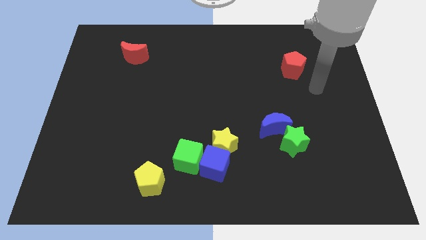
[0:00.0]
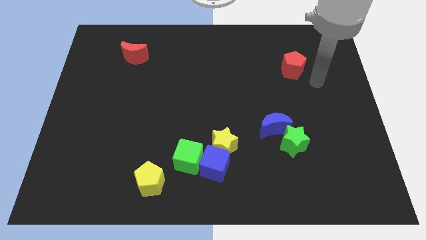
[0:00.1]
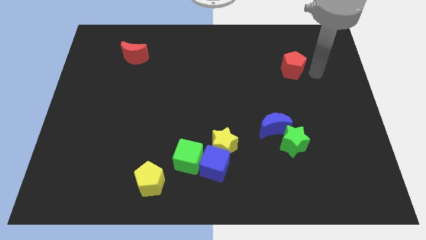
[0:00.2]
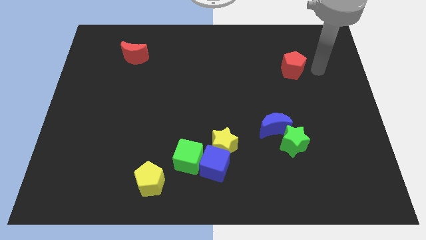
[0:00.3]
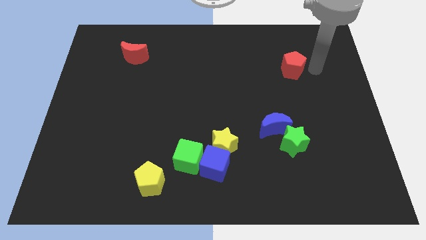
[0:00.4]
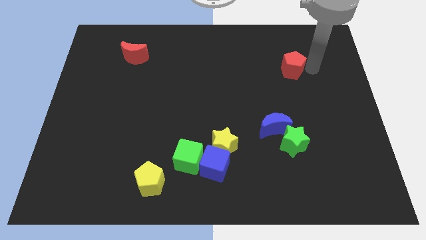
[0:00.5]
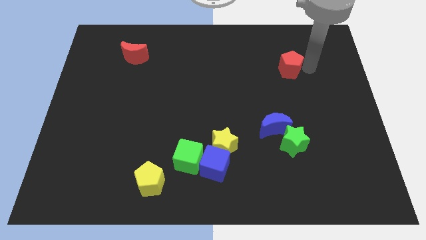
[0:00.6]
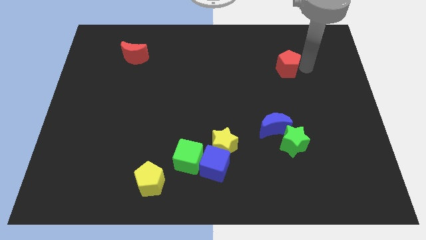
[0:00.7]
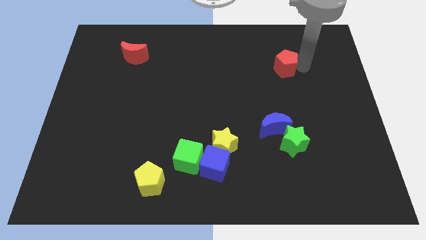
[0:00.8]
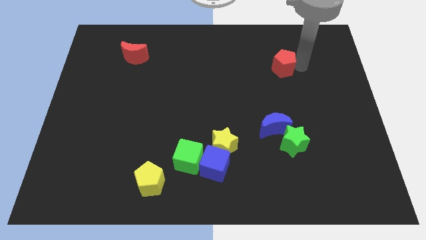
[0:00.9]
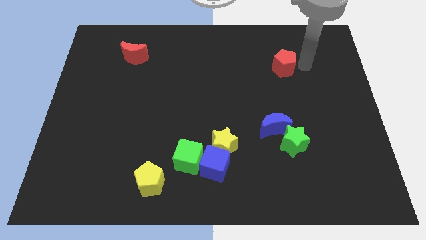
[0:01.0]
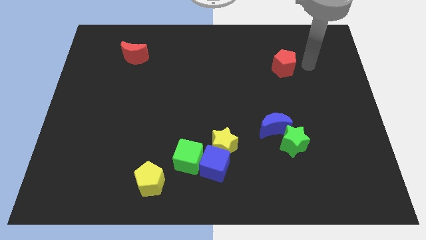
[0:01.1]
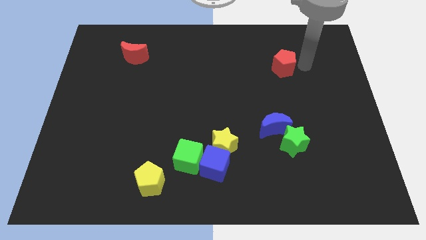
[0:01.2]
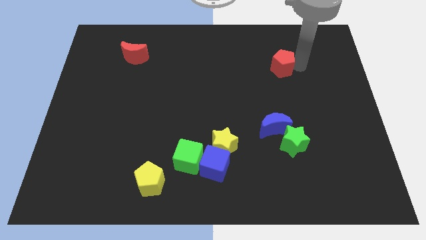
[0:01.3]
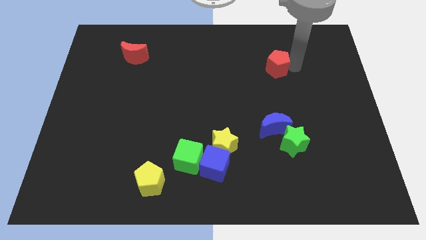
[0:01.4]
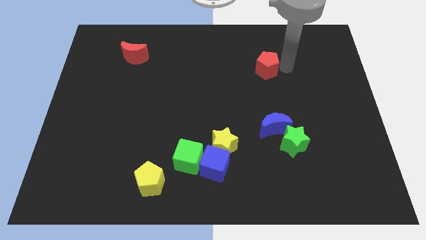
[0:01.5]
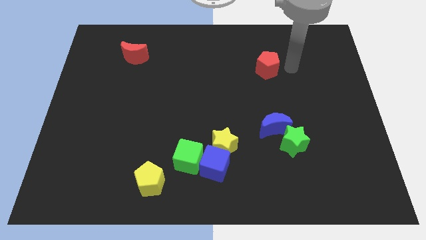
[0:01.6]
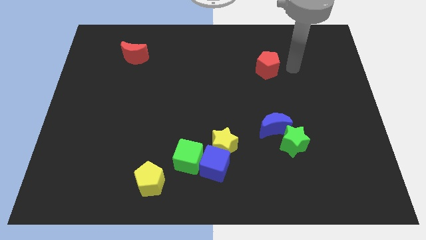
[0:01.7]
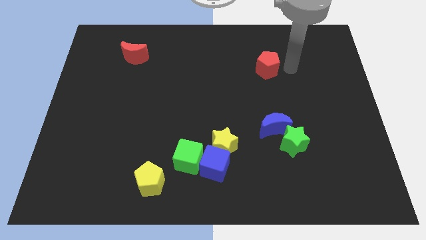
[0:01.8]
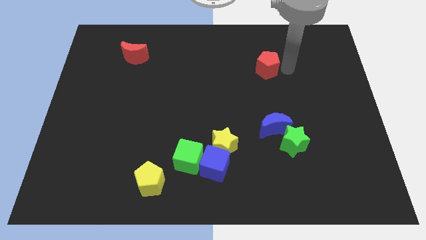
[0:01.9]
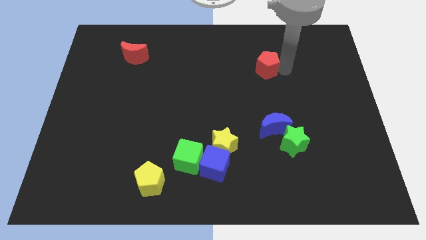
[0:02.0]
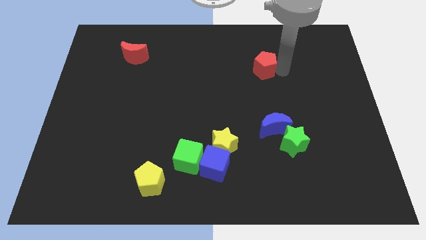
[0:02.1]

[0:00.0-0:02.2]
slightly slide the red pentagon left

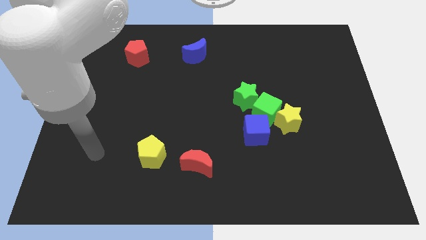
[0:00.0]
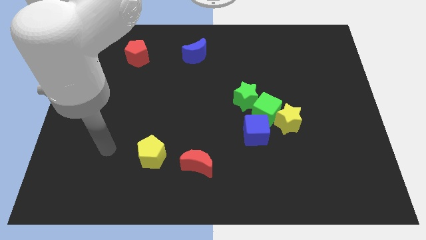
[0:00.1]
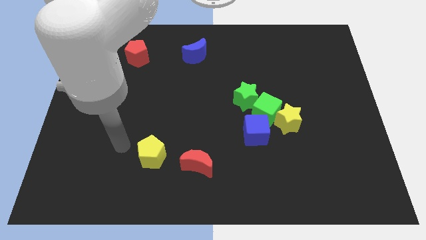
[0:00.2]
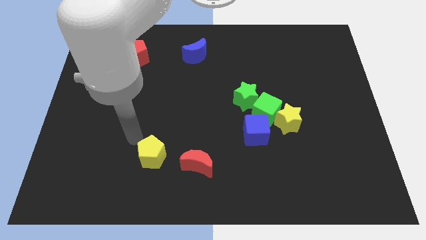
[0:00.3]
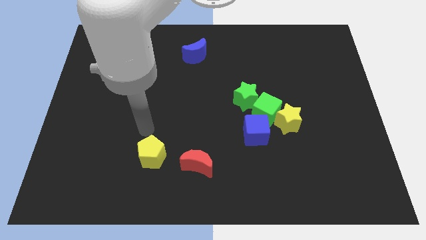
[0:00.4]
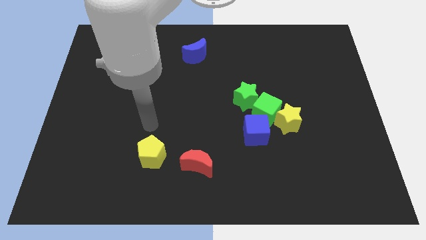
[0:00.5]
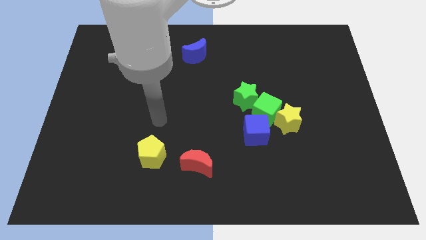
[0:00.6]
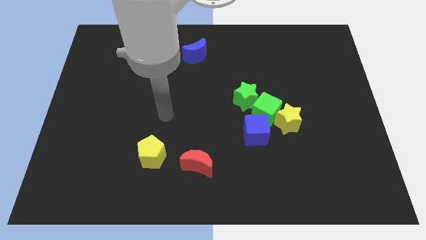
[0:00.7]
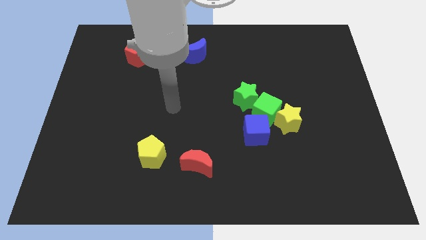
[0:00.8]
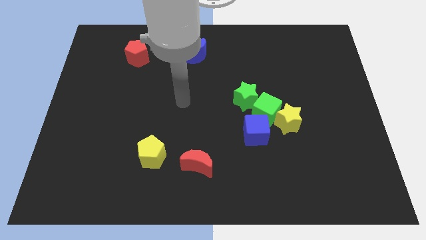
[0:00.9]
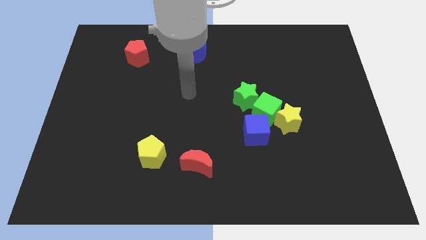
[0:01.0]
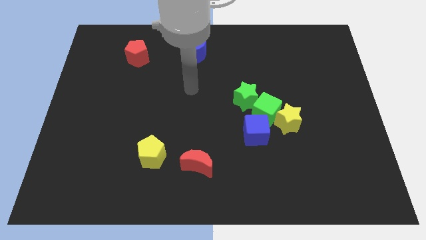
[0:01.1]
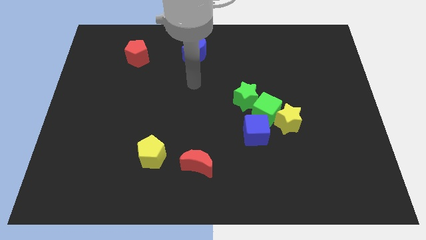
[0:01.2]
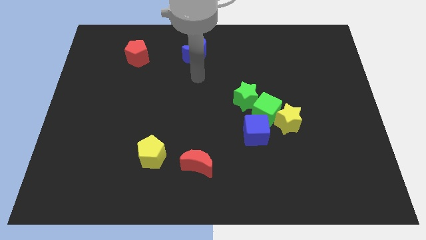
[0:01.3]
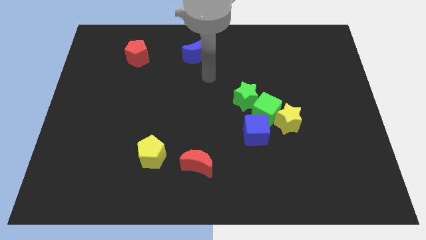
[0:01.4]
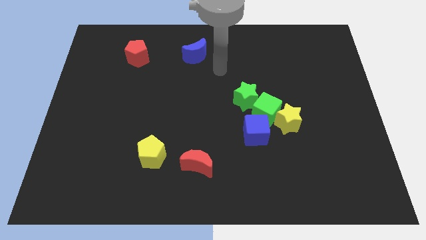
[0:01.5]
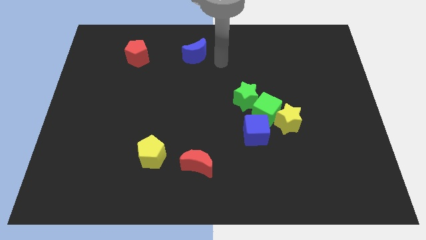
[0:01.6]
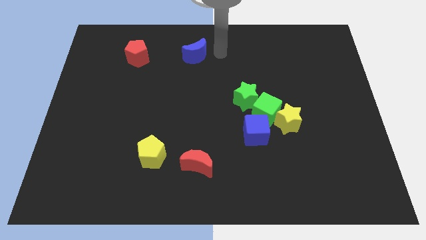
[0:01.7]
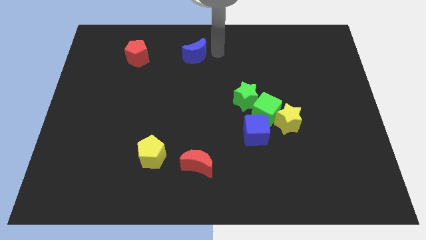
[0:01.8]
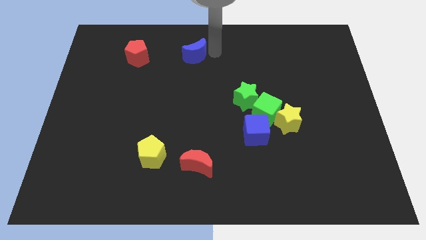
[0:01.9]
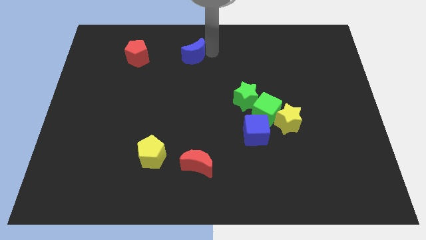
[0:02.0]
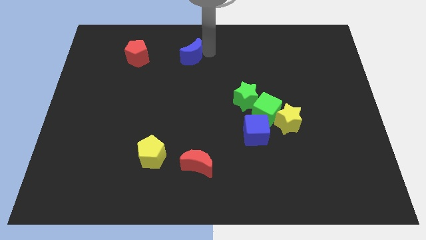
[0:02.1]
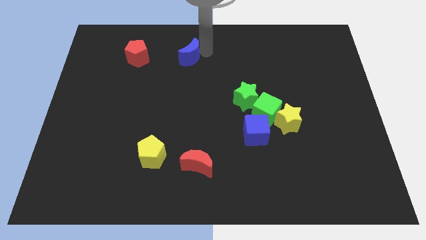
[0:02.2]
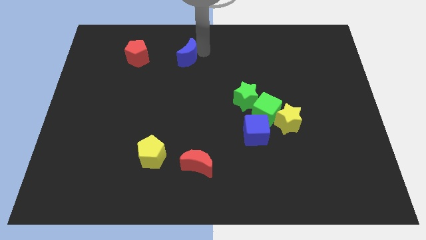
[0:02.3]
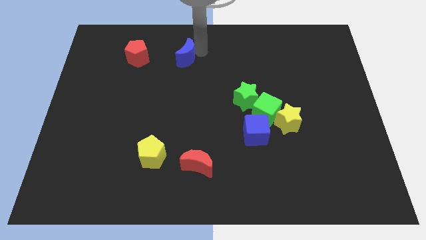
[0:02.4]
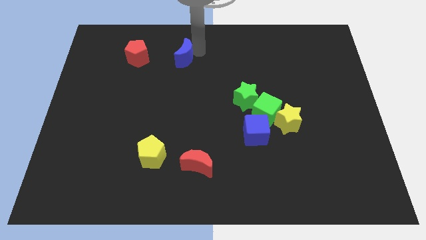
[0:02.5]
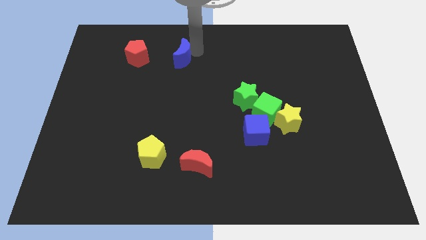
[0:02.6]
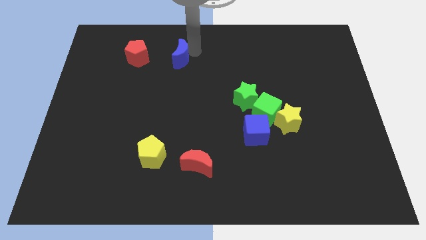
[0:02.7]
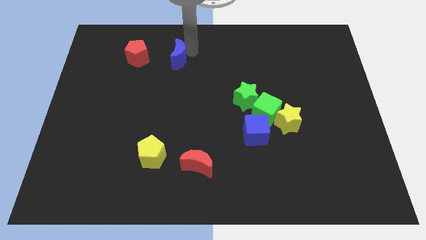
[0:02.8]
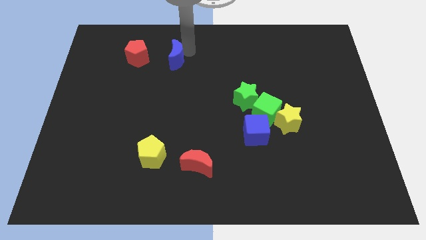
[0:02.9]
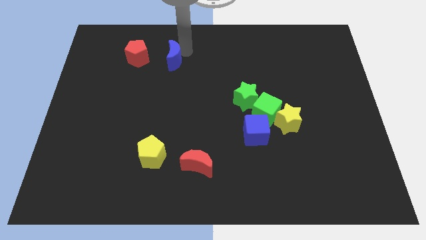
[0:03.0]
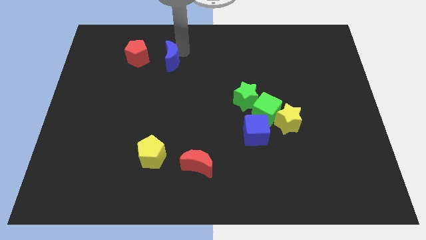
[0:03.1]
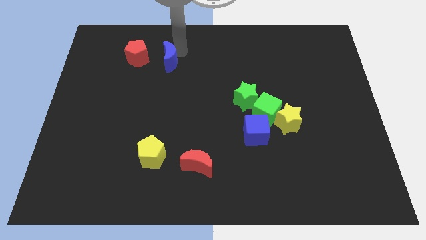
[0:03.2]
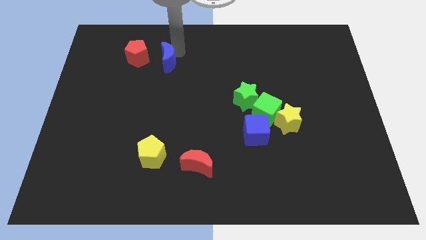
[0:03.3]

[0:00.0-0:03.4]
slide the blue moon a little left

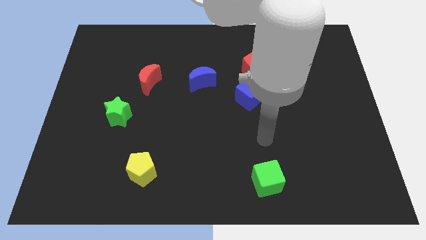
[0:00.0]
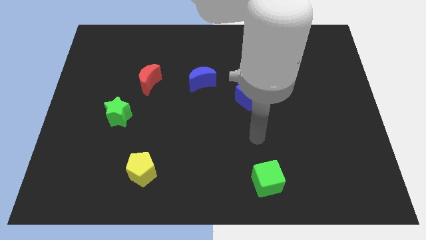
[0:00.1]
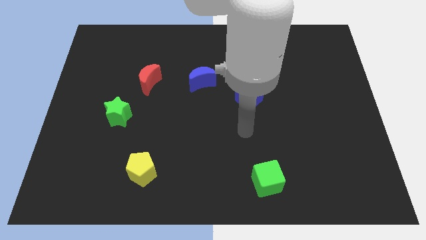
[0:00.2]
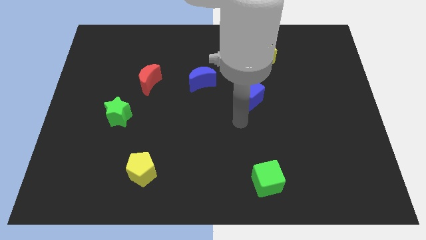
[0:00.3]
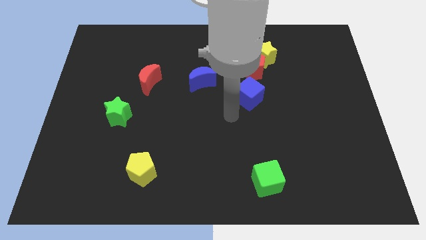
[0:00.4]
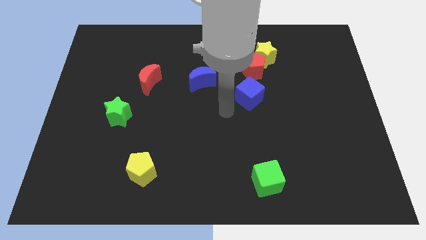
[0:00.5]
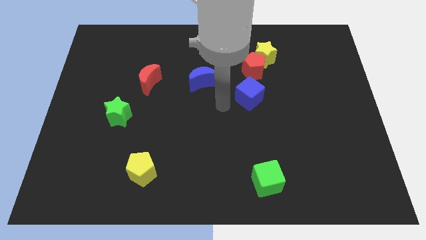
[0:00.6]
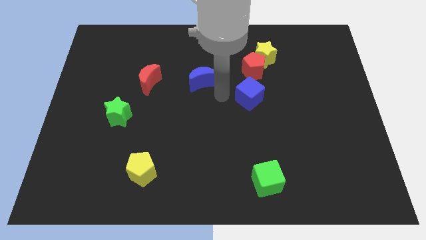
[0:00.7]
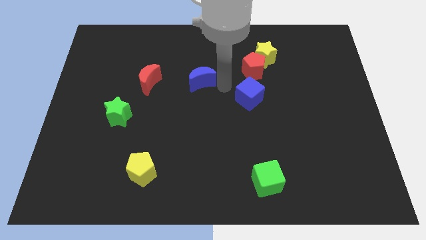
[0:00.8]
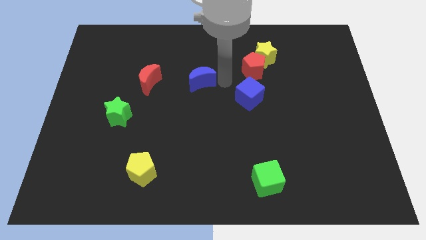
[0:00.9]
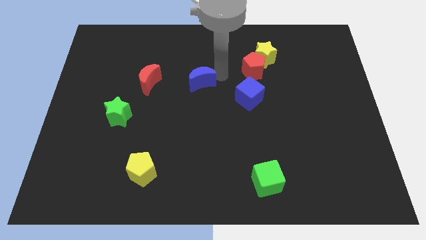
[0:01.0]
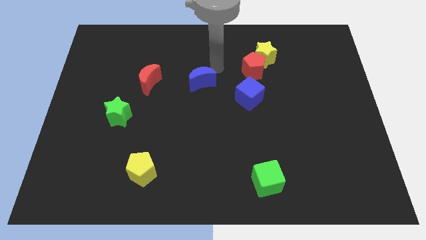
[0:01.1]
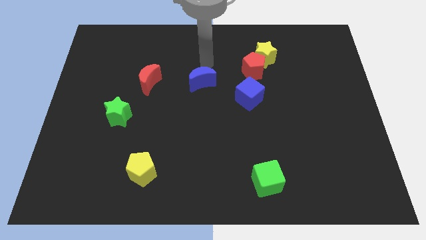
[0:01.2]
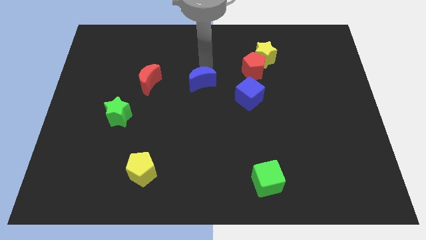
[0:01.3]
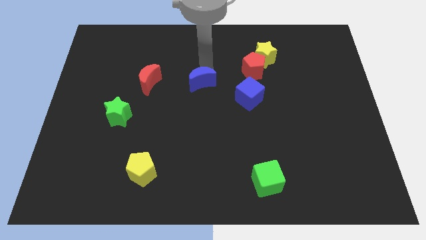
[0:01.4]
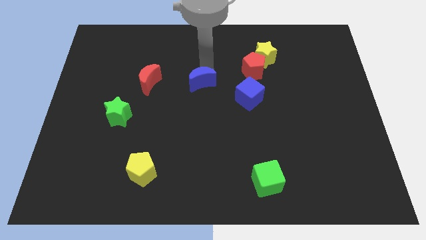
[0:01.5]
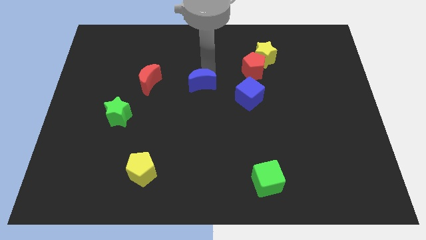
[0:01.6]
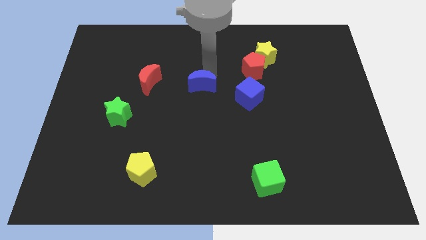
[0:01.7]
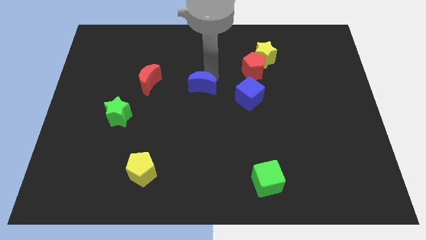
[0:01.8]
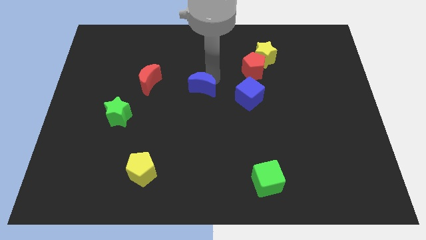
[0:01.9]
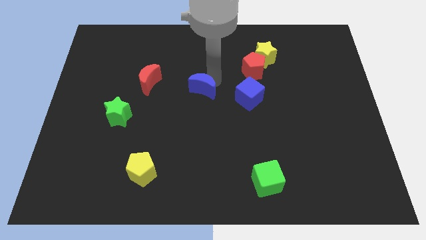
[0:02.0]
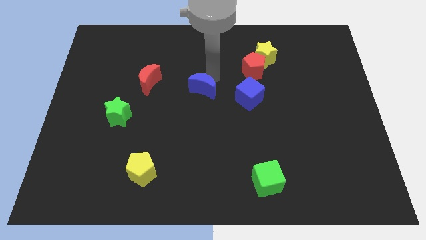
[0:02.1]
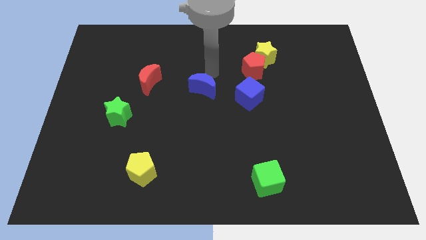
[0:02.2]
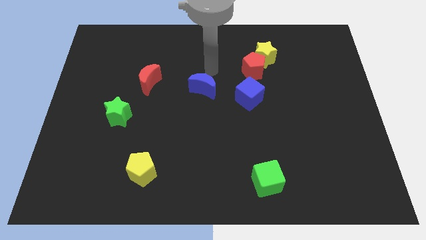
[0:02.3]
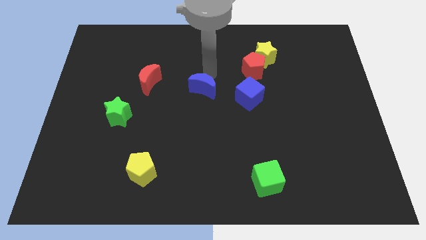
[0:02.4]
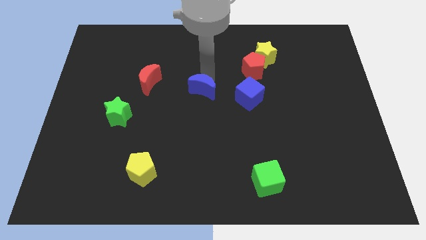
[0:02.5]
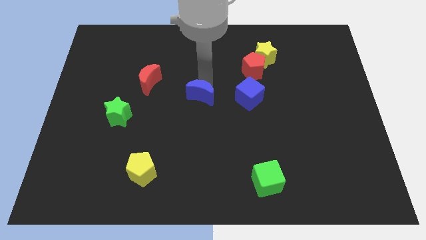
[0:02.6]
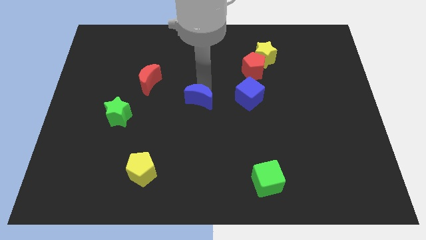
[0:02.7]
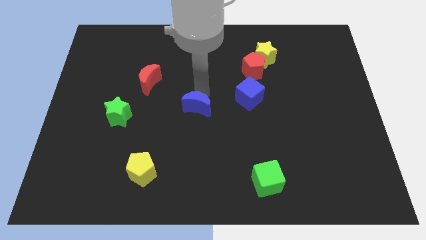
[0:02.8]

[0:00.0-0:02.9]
slightly move the blue moon down
